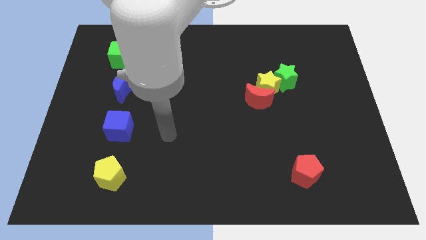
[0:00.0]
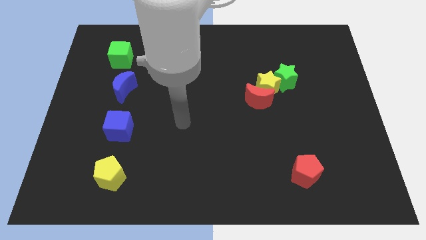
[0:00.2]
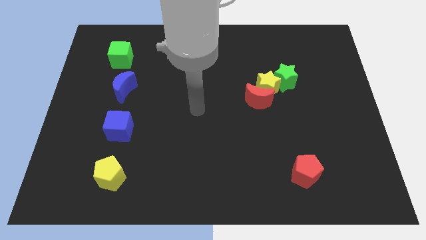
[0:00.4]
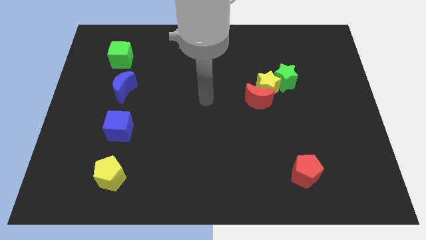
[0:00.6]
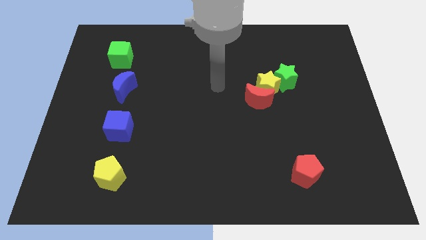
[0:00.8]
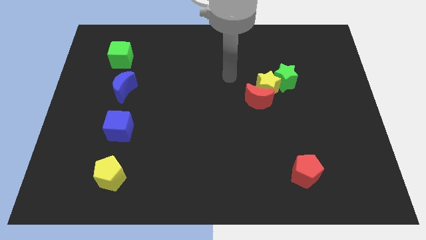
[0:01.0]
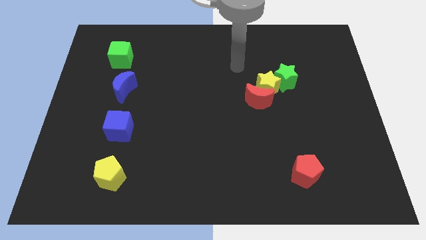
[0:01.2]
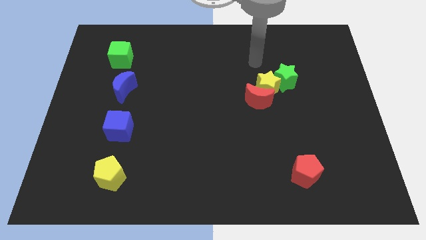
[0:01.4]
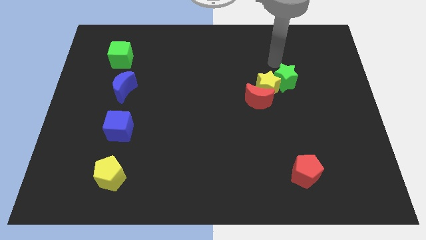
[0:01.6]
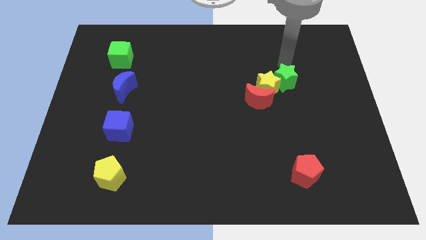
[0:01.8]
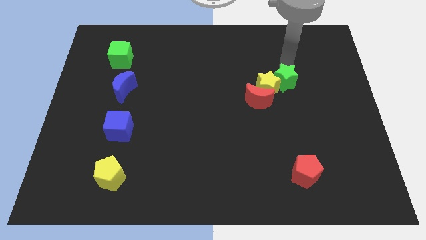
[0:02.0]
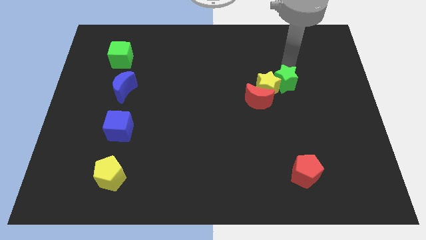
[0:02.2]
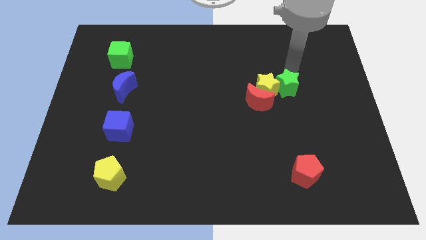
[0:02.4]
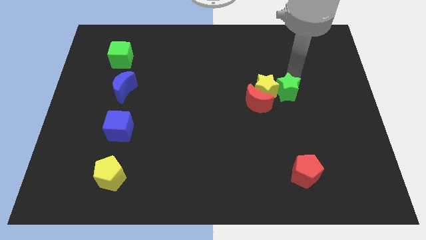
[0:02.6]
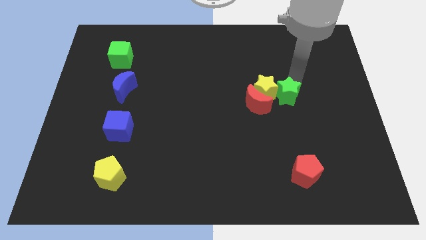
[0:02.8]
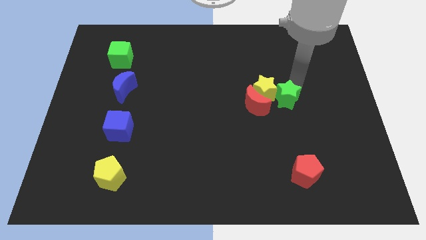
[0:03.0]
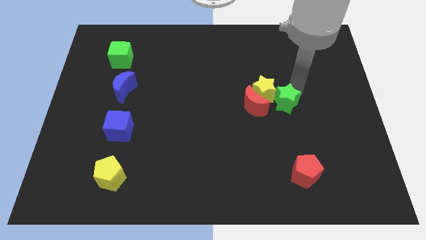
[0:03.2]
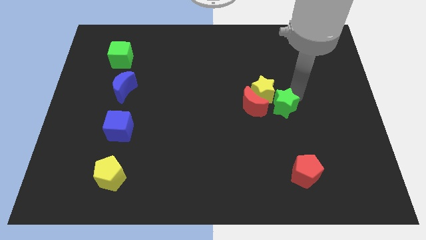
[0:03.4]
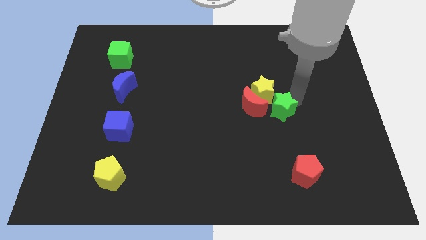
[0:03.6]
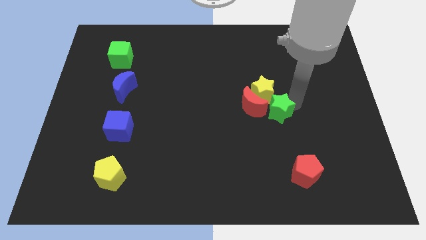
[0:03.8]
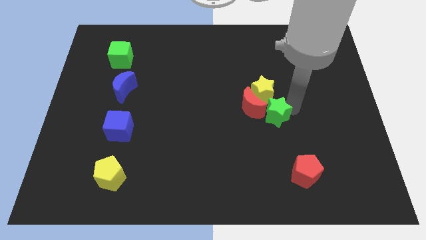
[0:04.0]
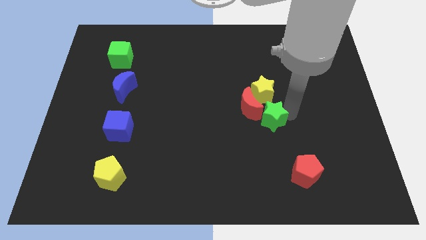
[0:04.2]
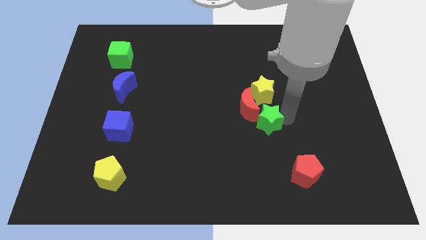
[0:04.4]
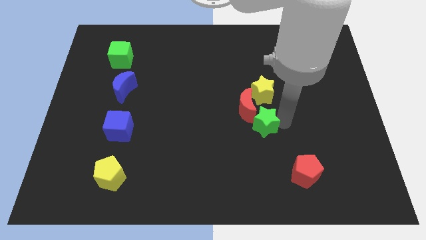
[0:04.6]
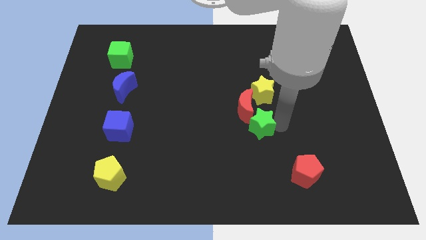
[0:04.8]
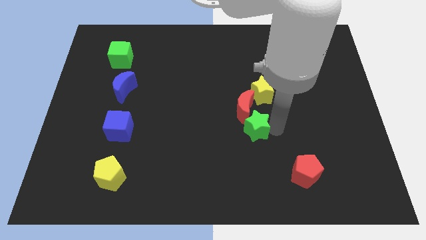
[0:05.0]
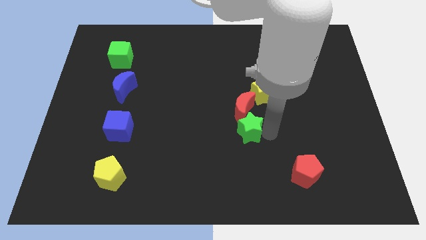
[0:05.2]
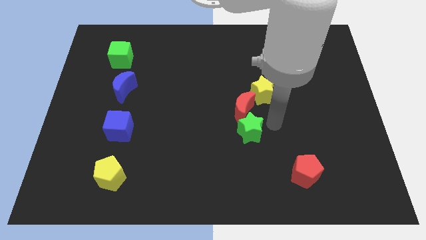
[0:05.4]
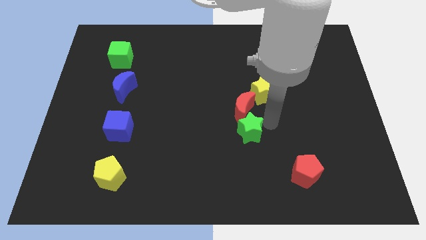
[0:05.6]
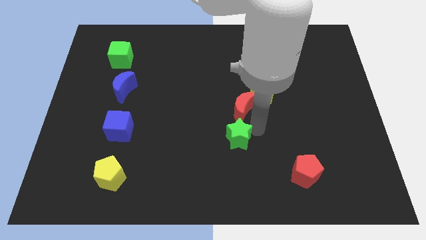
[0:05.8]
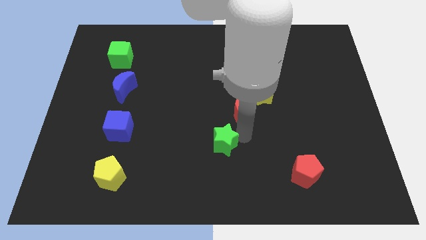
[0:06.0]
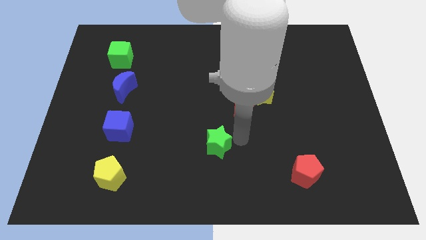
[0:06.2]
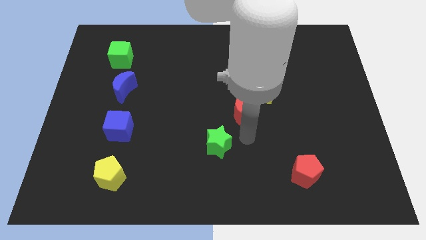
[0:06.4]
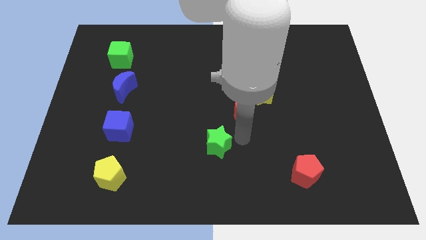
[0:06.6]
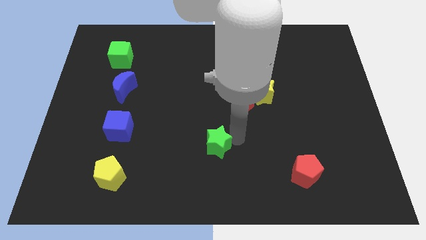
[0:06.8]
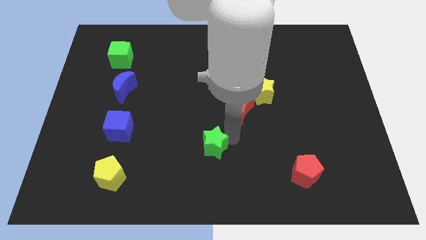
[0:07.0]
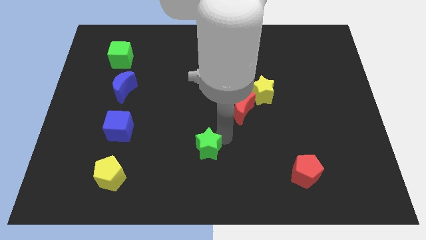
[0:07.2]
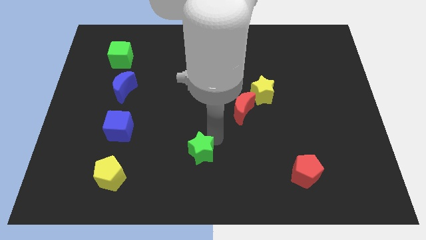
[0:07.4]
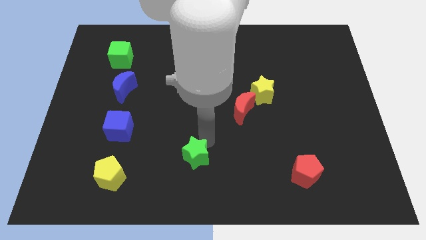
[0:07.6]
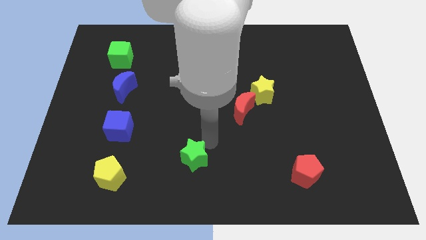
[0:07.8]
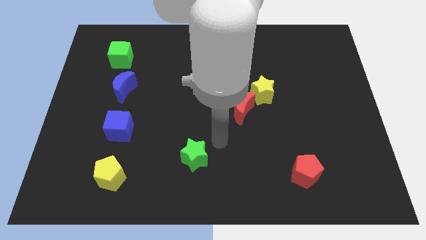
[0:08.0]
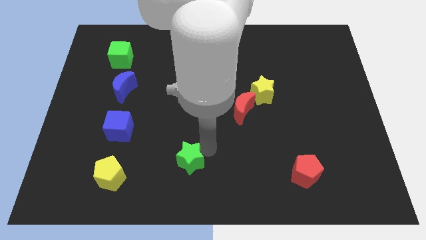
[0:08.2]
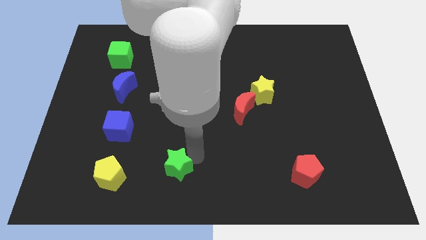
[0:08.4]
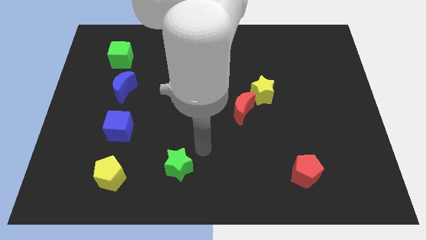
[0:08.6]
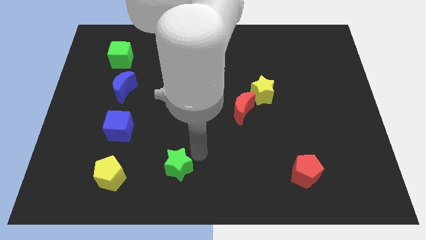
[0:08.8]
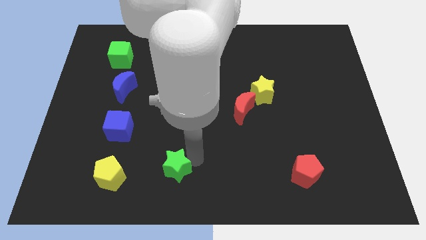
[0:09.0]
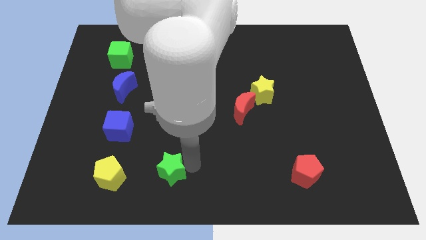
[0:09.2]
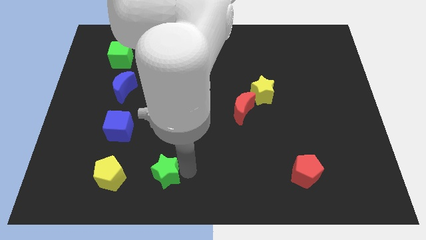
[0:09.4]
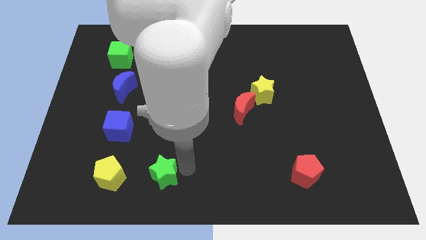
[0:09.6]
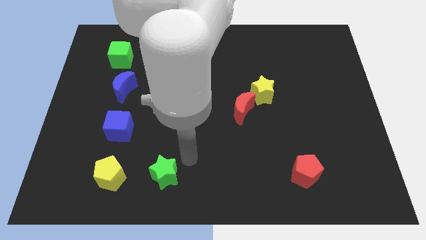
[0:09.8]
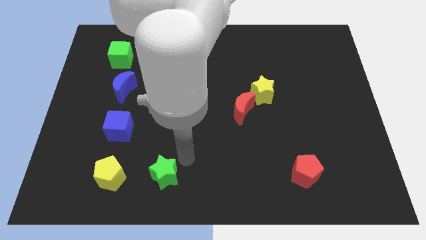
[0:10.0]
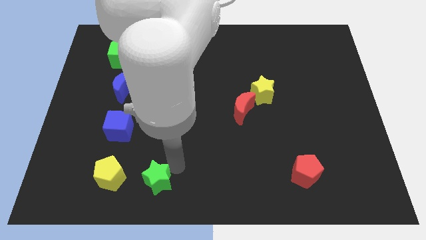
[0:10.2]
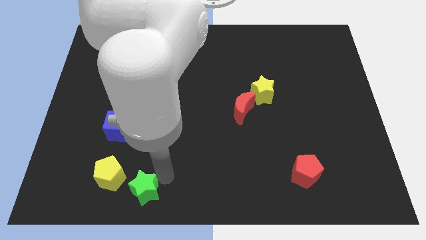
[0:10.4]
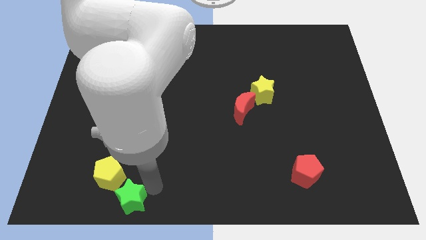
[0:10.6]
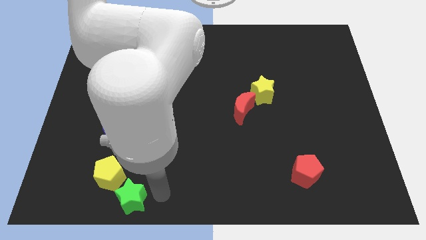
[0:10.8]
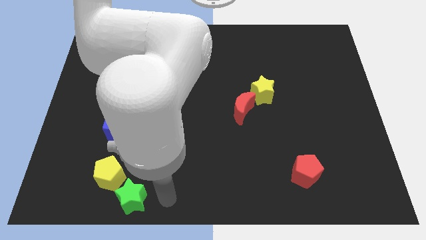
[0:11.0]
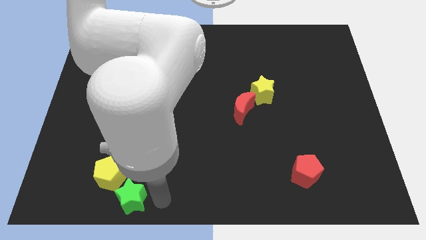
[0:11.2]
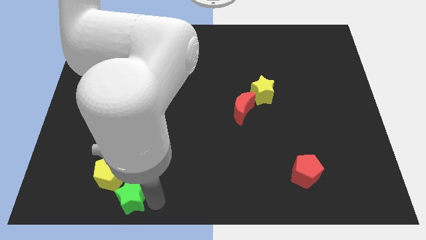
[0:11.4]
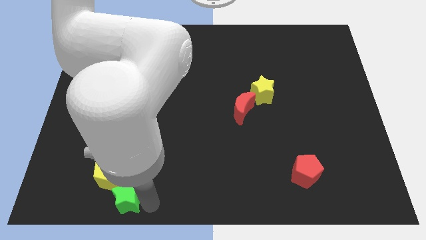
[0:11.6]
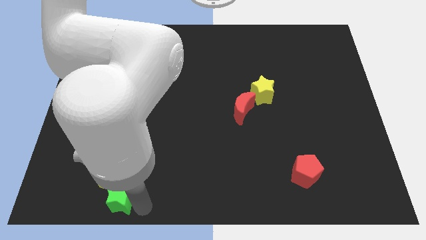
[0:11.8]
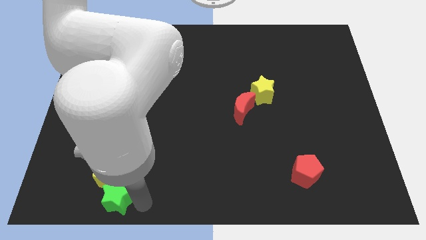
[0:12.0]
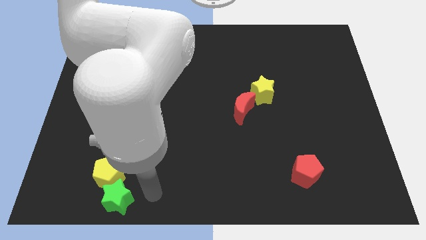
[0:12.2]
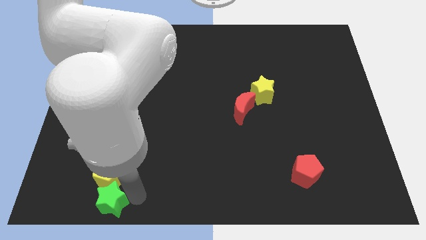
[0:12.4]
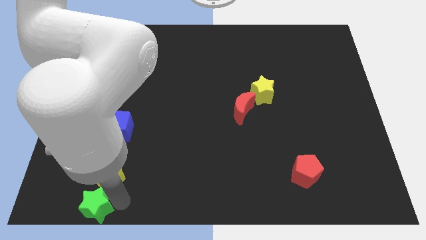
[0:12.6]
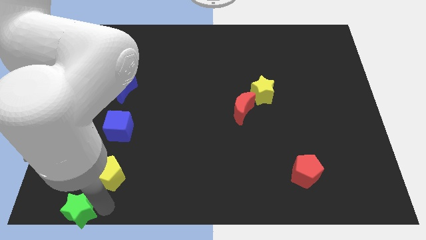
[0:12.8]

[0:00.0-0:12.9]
put the green star to the lower left corner
